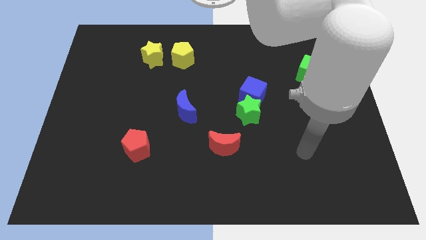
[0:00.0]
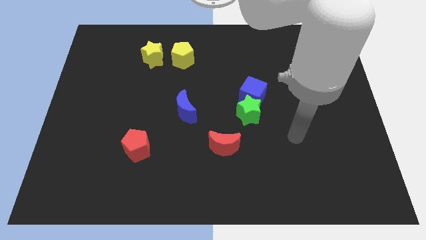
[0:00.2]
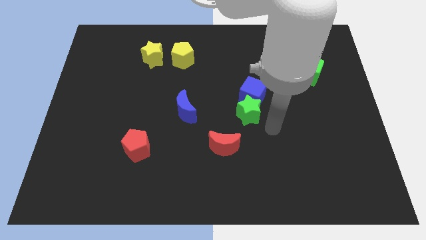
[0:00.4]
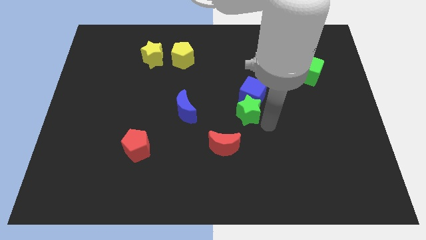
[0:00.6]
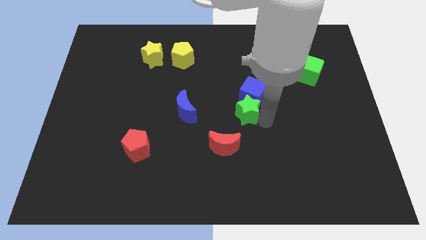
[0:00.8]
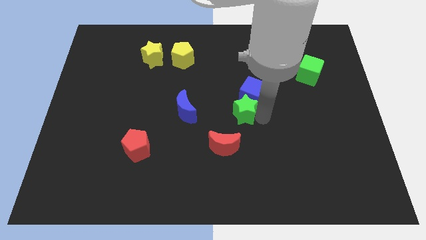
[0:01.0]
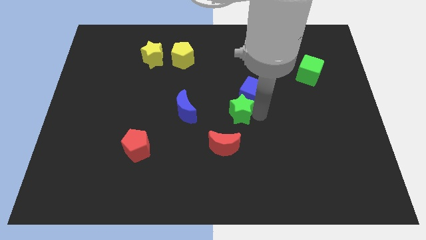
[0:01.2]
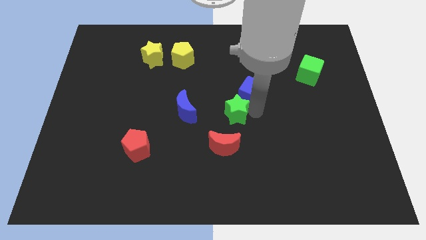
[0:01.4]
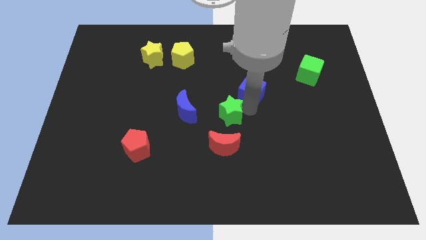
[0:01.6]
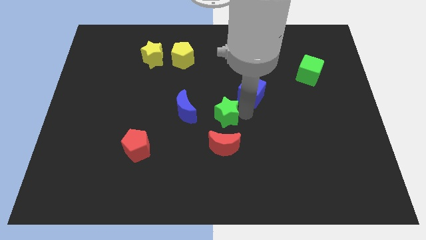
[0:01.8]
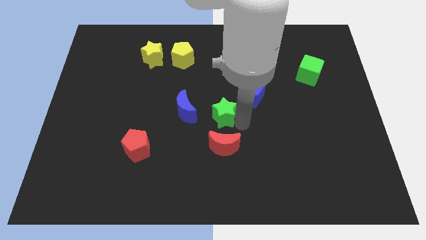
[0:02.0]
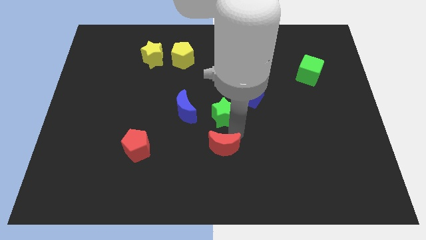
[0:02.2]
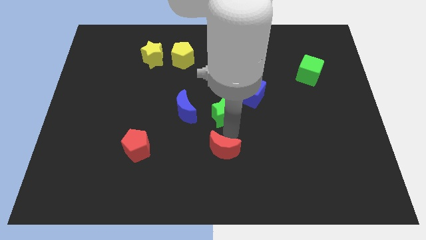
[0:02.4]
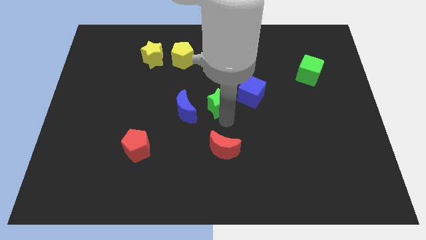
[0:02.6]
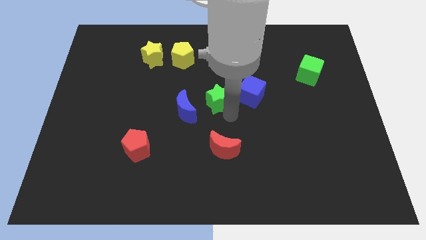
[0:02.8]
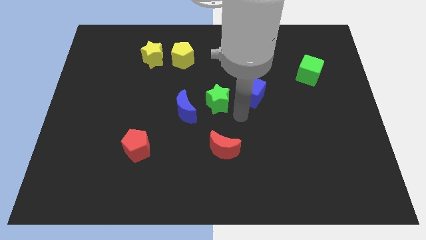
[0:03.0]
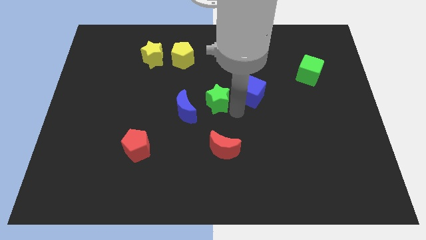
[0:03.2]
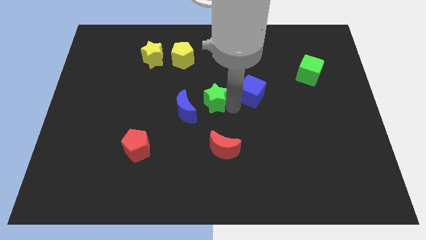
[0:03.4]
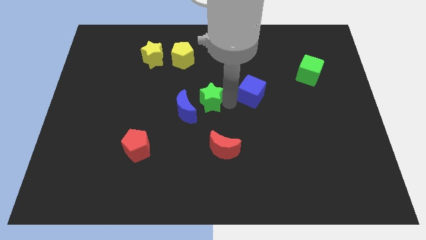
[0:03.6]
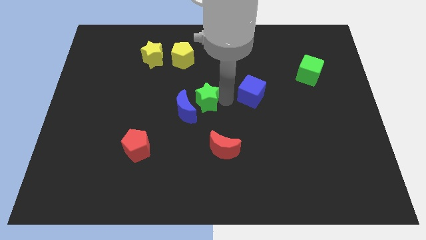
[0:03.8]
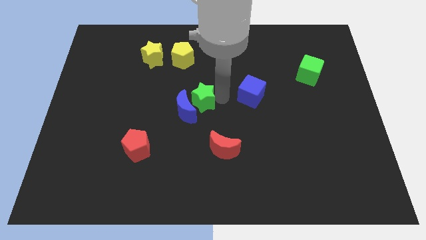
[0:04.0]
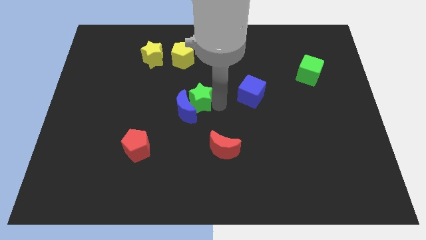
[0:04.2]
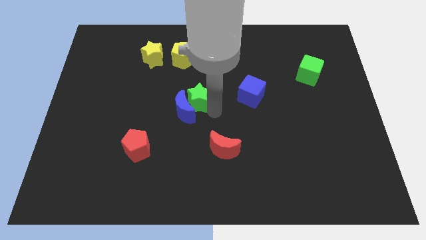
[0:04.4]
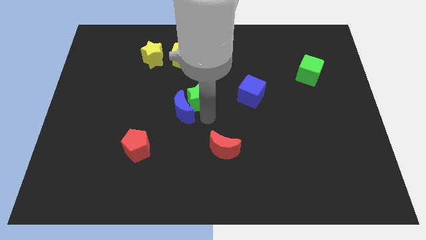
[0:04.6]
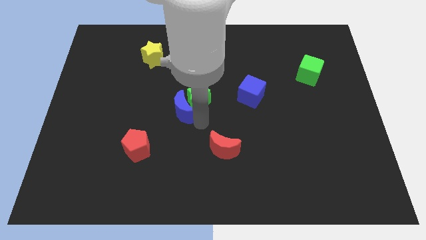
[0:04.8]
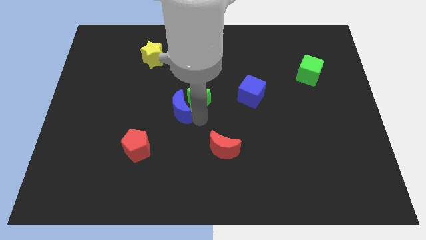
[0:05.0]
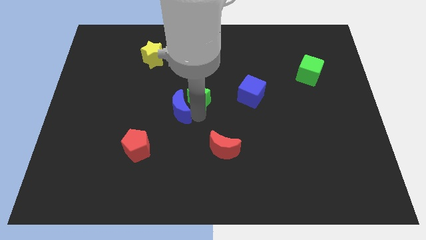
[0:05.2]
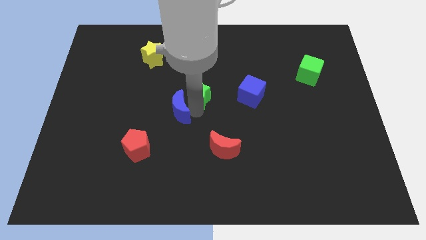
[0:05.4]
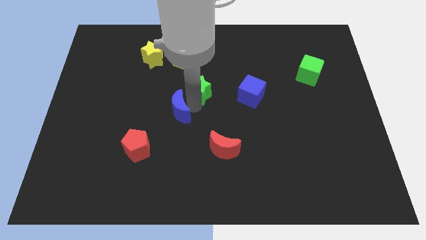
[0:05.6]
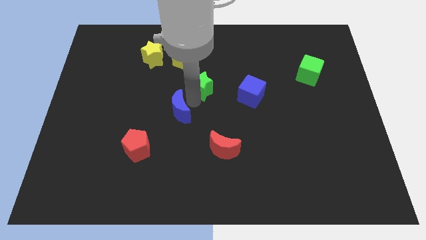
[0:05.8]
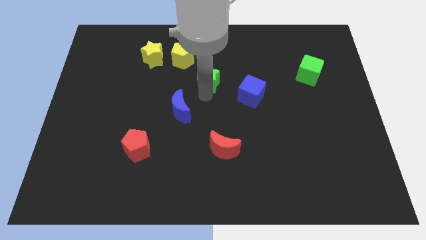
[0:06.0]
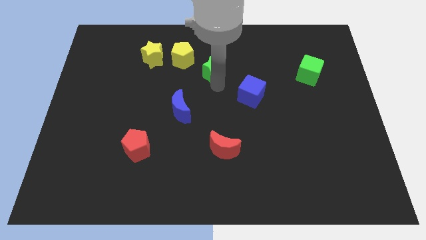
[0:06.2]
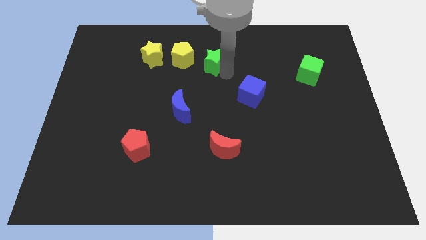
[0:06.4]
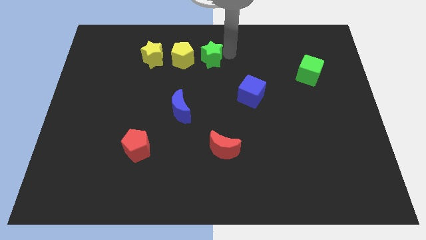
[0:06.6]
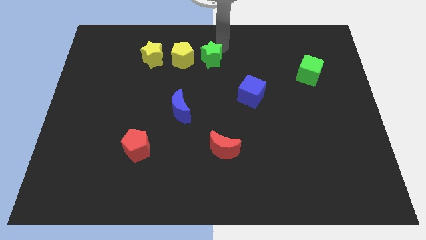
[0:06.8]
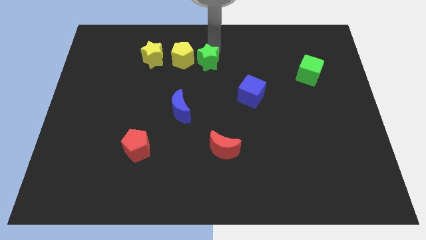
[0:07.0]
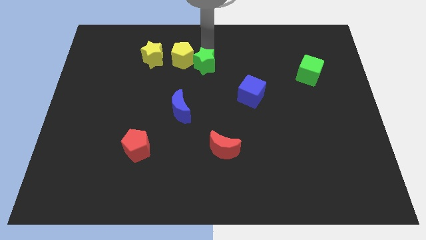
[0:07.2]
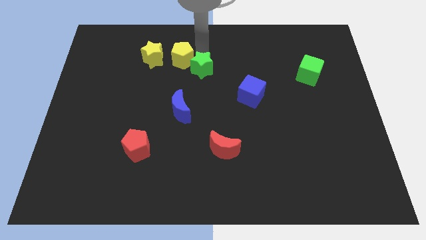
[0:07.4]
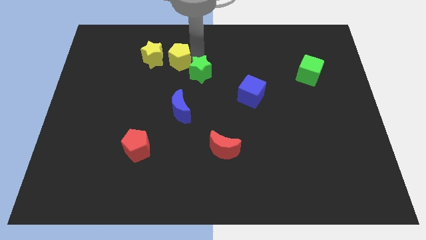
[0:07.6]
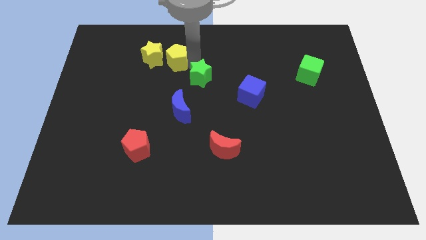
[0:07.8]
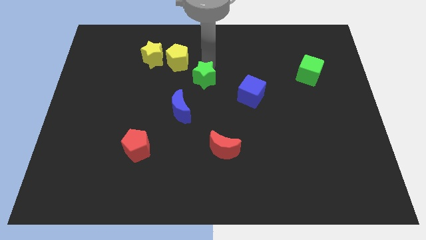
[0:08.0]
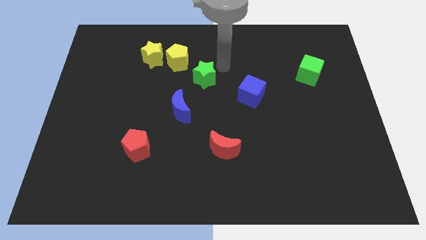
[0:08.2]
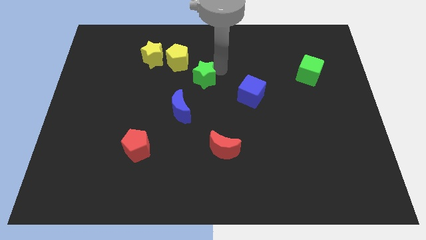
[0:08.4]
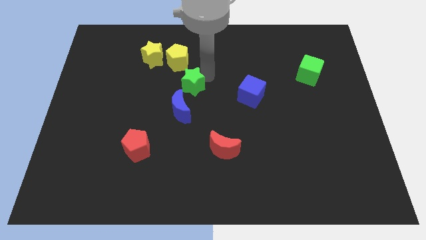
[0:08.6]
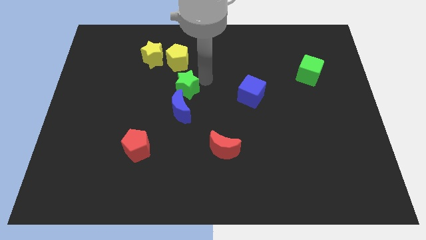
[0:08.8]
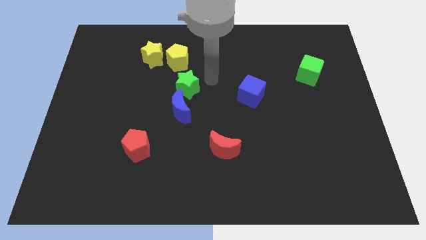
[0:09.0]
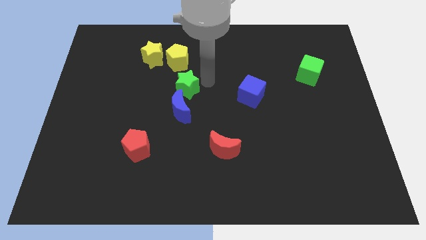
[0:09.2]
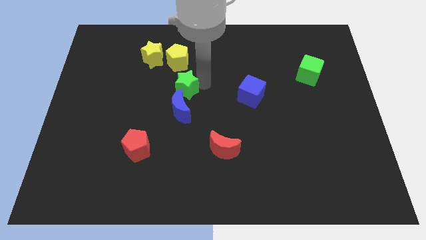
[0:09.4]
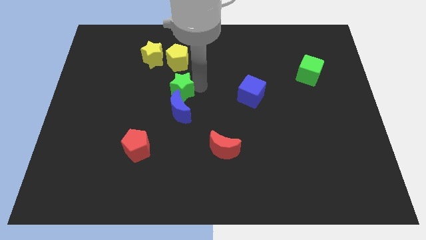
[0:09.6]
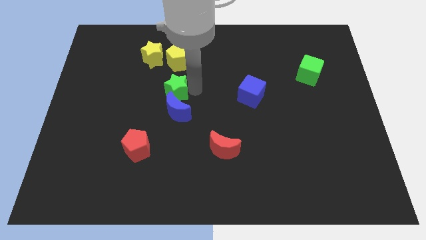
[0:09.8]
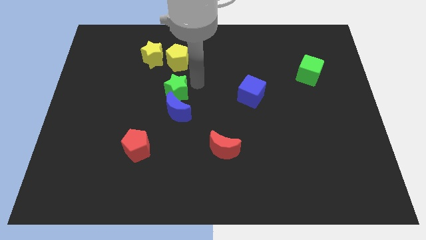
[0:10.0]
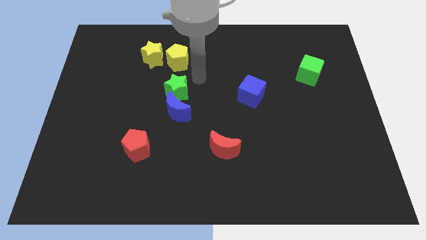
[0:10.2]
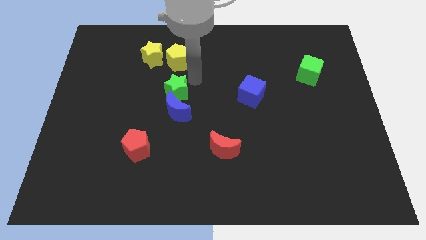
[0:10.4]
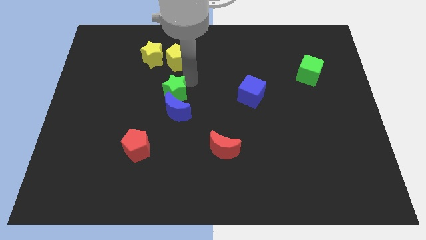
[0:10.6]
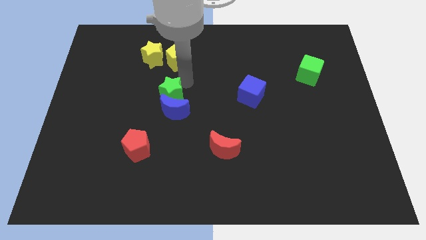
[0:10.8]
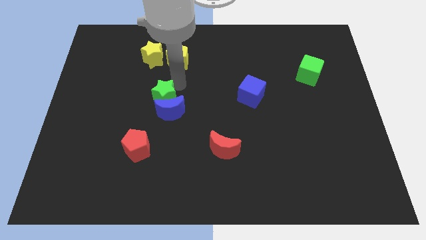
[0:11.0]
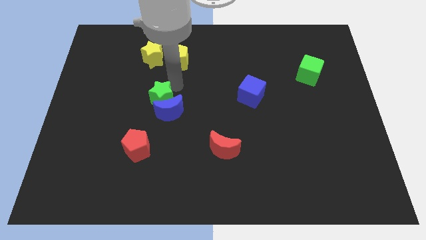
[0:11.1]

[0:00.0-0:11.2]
move the green star to the left

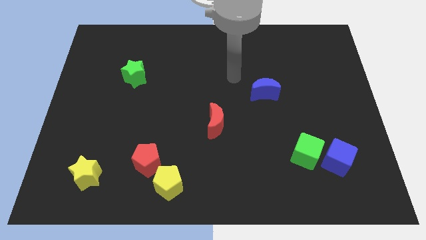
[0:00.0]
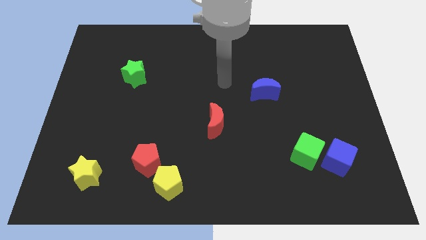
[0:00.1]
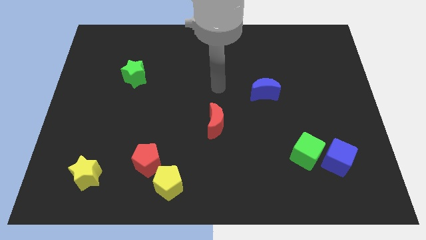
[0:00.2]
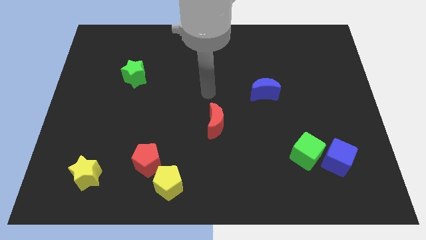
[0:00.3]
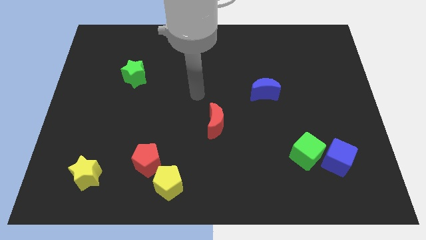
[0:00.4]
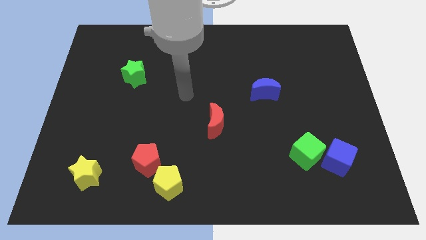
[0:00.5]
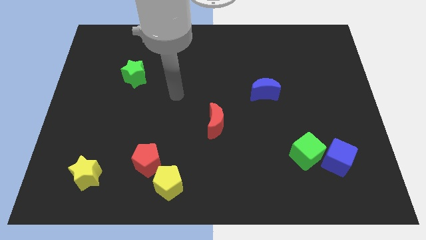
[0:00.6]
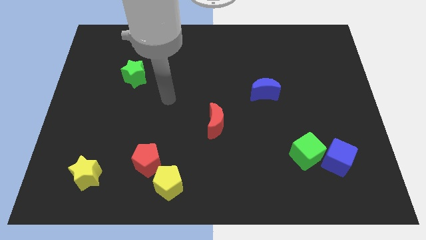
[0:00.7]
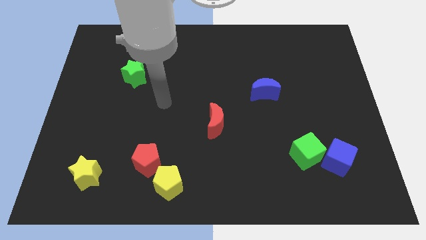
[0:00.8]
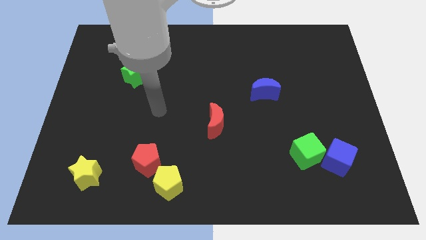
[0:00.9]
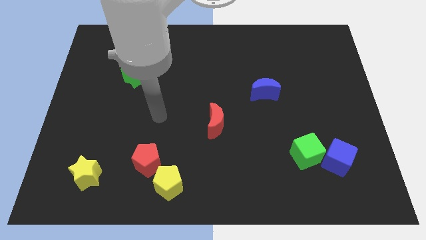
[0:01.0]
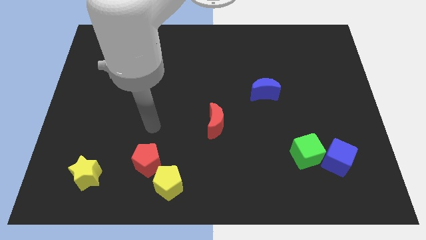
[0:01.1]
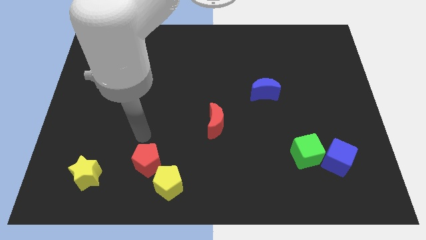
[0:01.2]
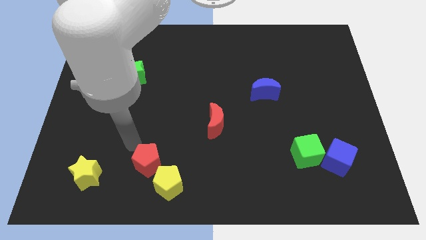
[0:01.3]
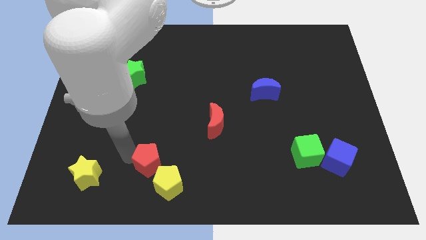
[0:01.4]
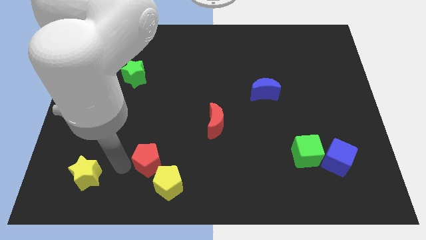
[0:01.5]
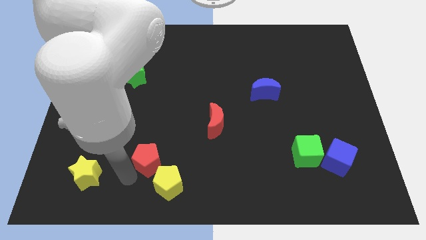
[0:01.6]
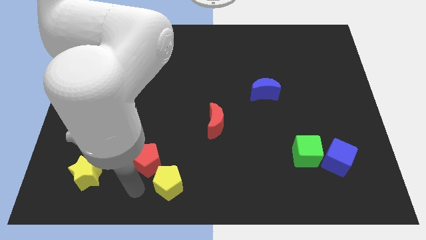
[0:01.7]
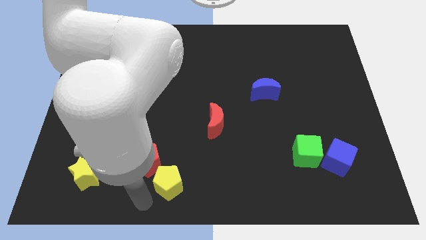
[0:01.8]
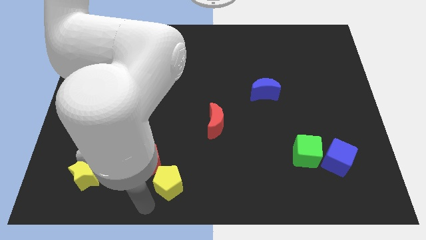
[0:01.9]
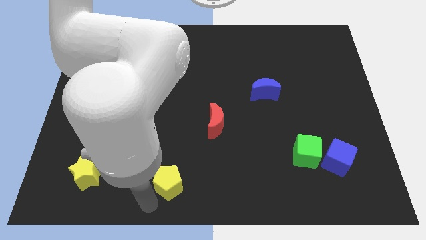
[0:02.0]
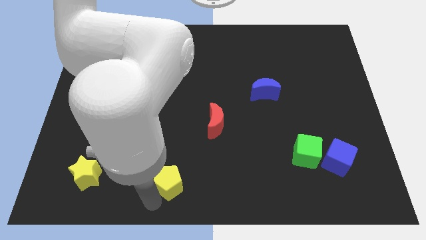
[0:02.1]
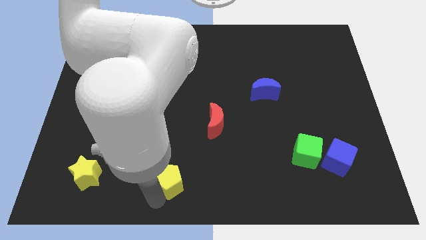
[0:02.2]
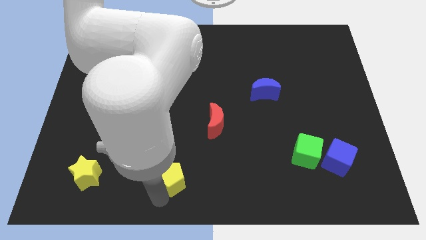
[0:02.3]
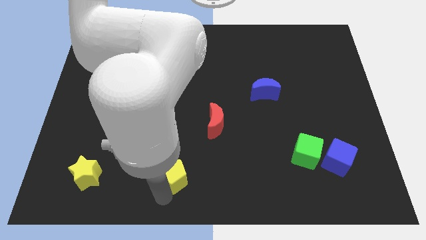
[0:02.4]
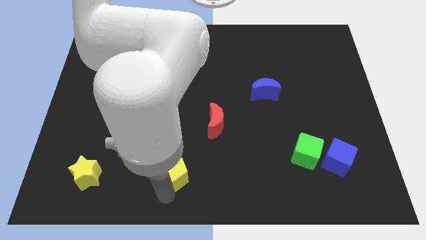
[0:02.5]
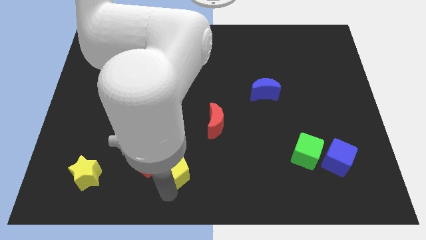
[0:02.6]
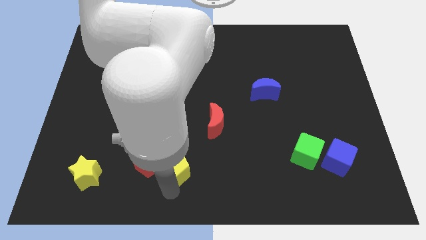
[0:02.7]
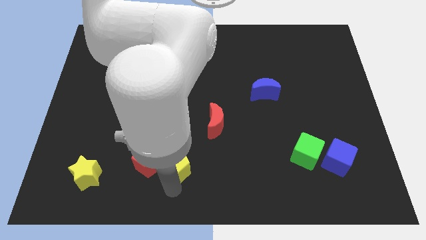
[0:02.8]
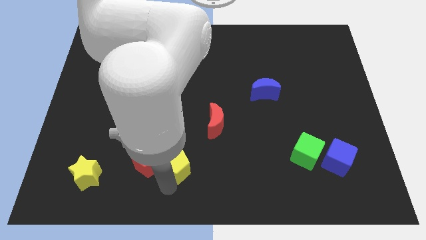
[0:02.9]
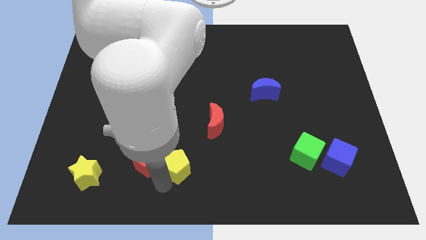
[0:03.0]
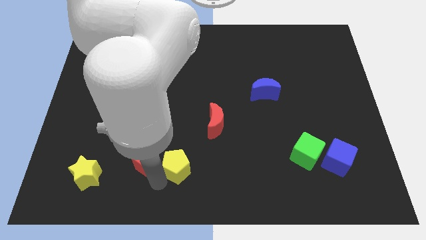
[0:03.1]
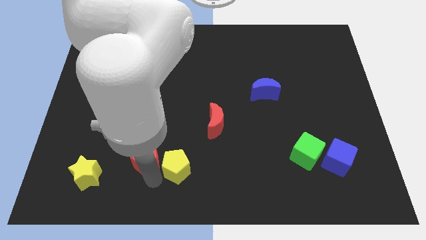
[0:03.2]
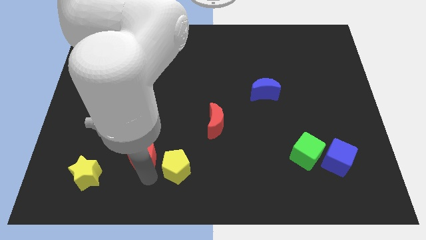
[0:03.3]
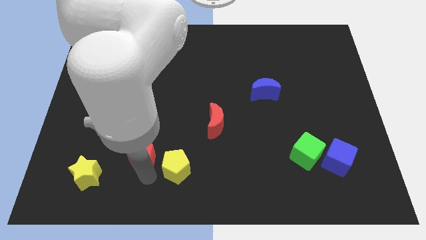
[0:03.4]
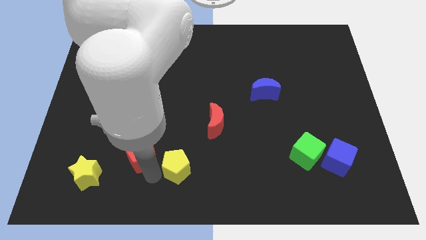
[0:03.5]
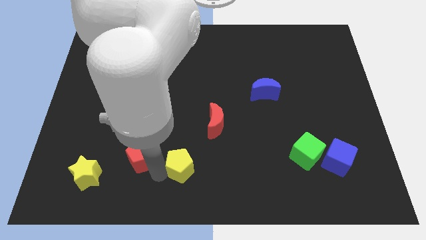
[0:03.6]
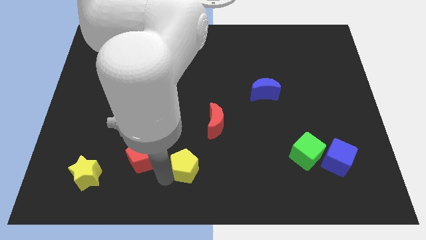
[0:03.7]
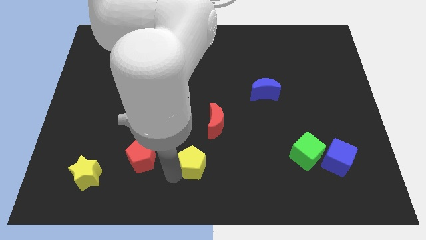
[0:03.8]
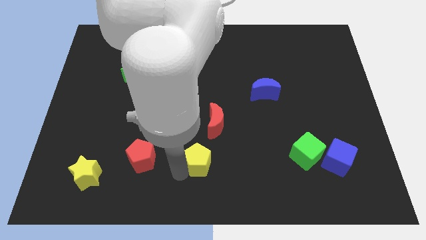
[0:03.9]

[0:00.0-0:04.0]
slightly move the yellow pentagon up and to the right diagonally
